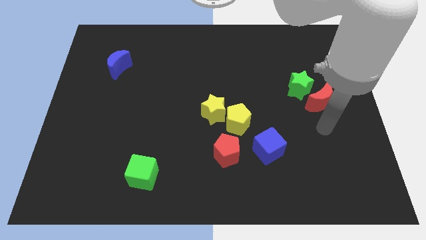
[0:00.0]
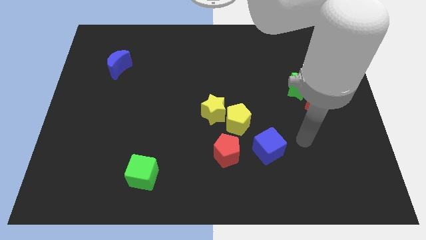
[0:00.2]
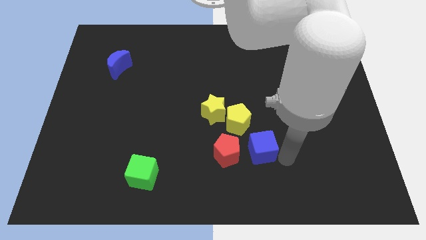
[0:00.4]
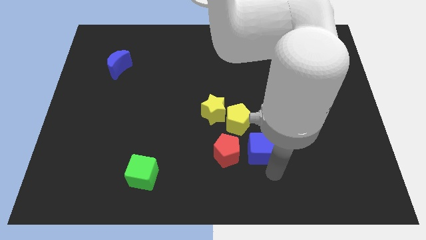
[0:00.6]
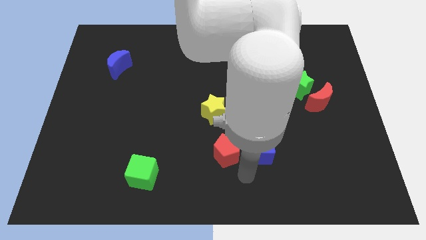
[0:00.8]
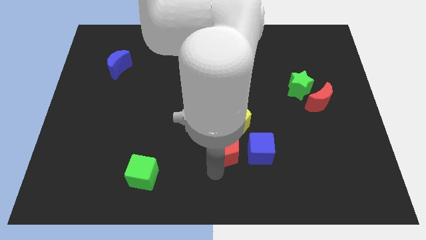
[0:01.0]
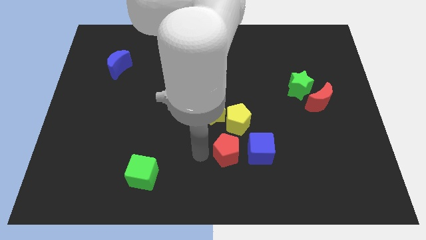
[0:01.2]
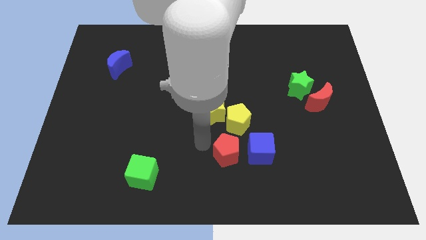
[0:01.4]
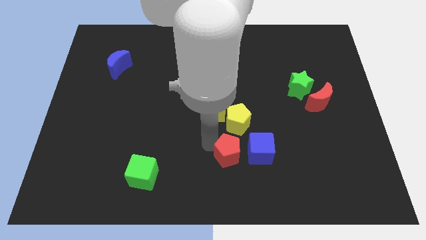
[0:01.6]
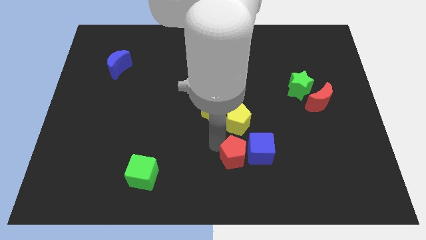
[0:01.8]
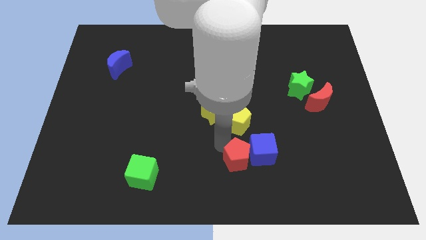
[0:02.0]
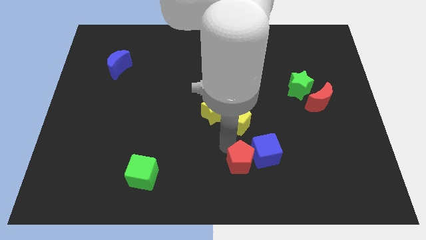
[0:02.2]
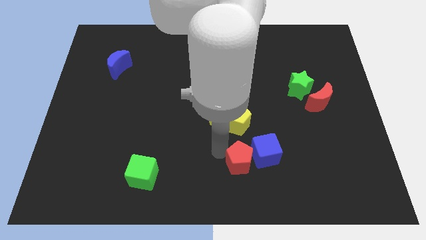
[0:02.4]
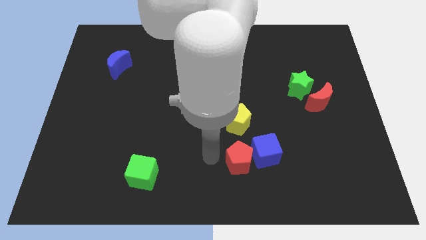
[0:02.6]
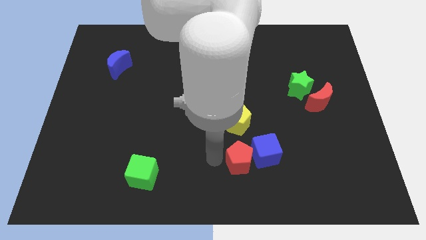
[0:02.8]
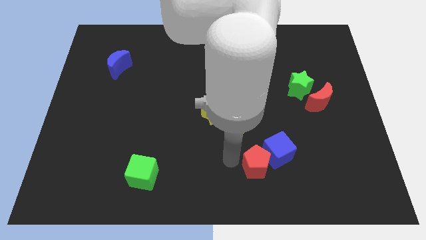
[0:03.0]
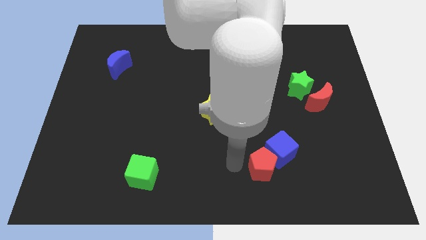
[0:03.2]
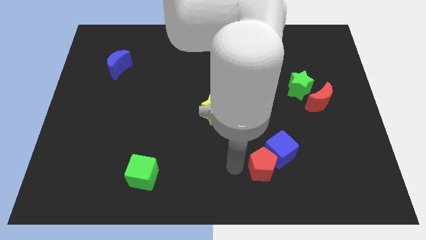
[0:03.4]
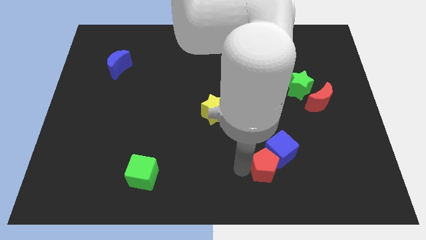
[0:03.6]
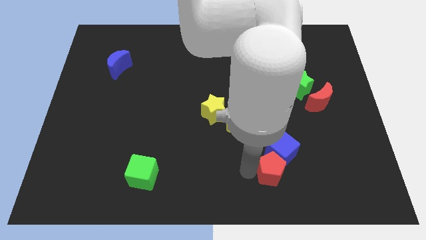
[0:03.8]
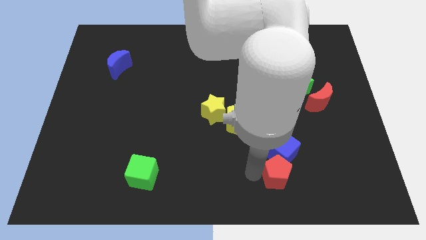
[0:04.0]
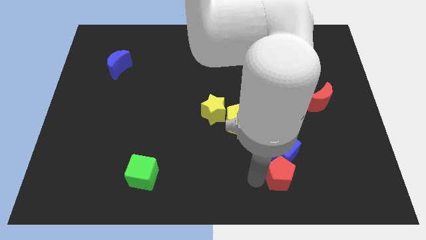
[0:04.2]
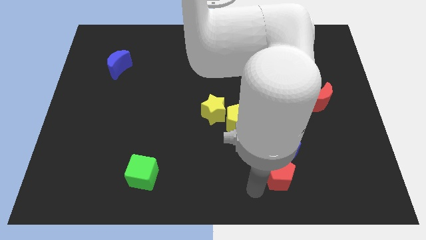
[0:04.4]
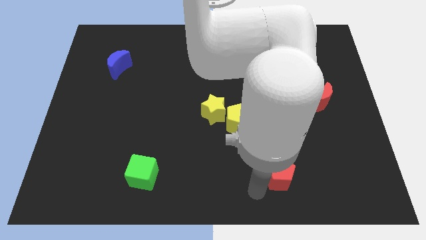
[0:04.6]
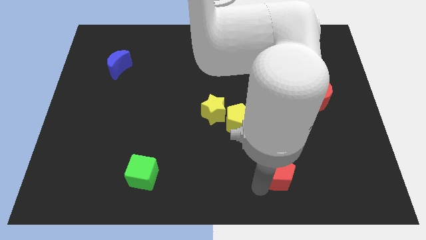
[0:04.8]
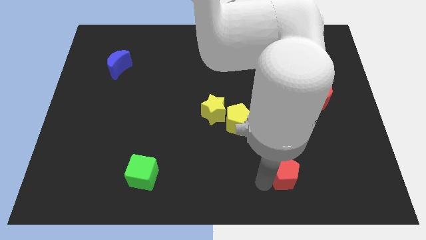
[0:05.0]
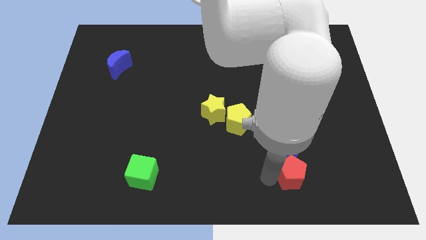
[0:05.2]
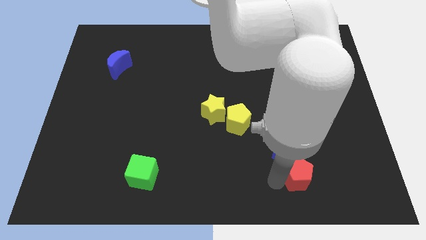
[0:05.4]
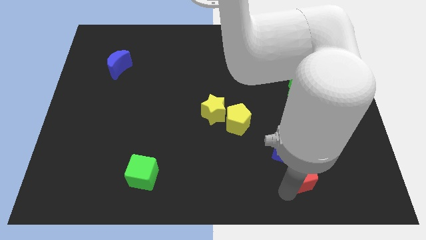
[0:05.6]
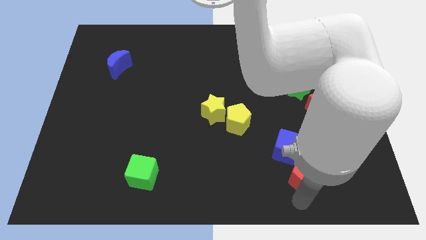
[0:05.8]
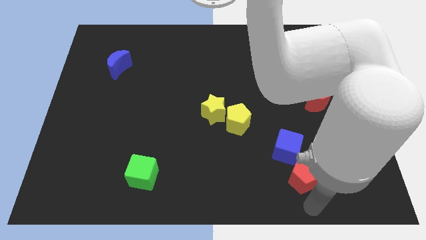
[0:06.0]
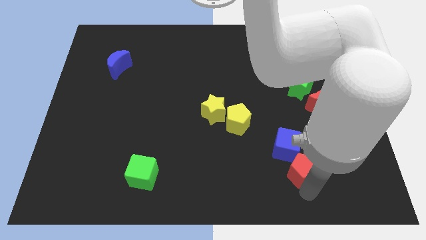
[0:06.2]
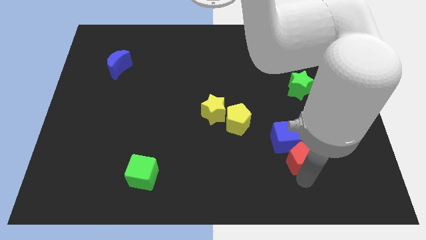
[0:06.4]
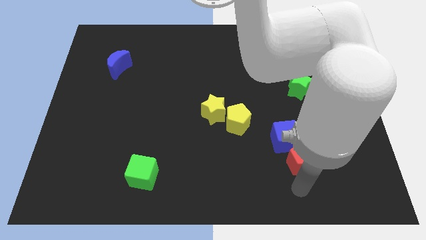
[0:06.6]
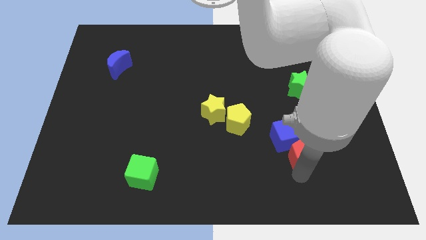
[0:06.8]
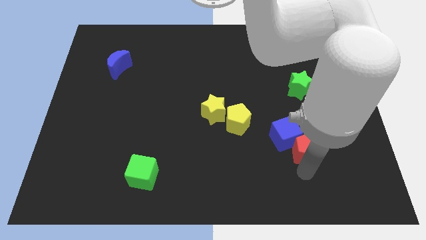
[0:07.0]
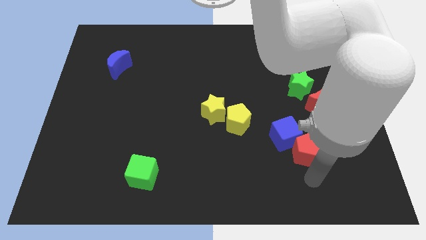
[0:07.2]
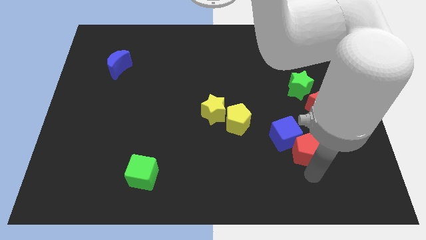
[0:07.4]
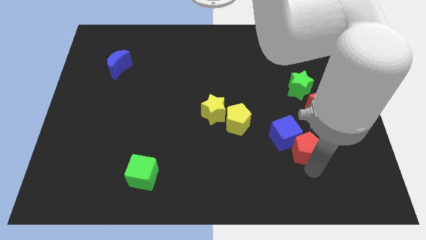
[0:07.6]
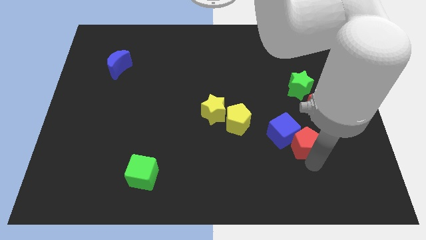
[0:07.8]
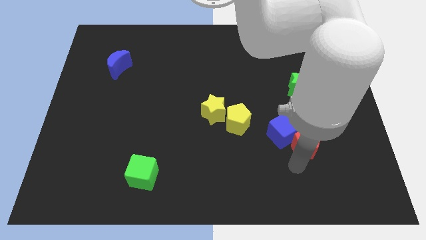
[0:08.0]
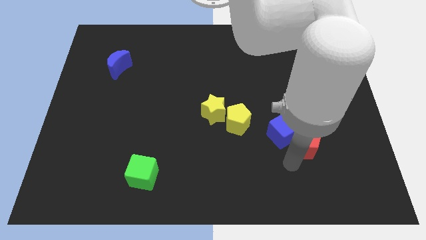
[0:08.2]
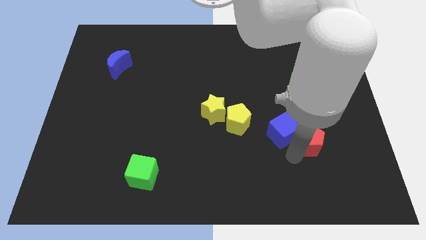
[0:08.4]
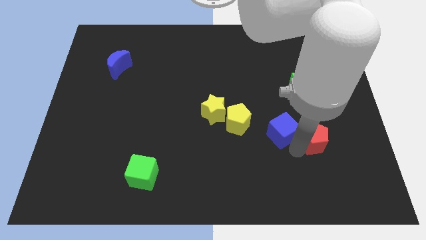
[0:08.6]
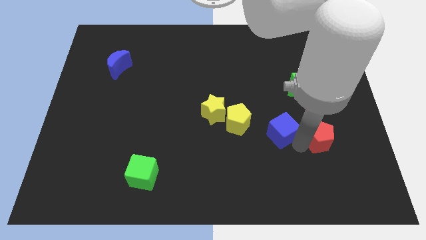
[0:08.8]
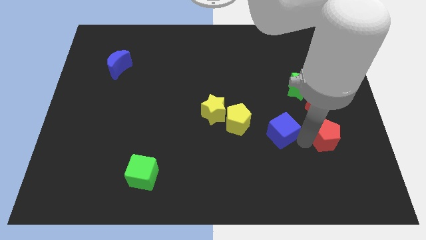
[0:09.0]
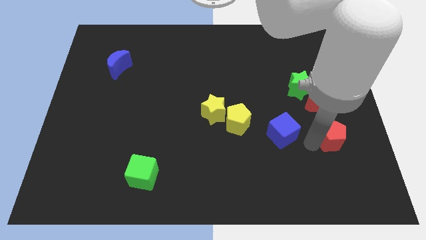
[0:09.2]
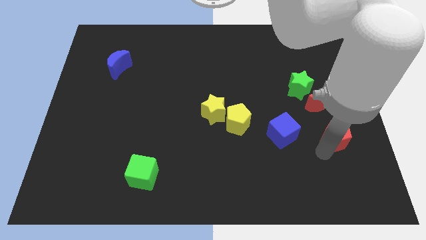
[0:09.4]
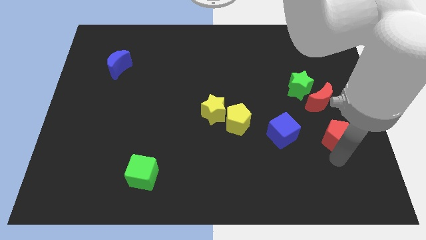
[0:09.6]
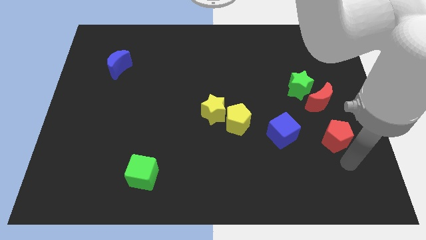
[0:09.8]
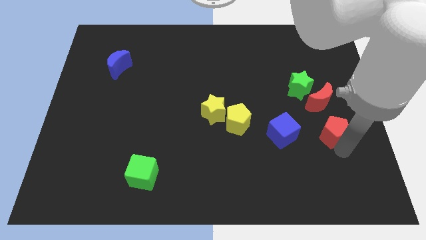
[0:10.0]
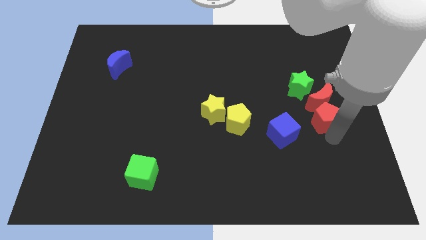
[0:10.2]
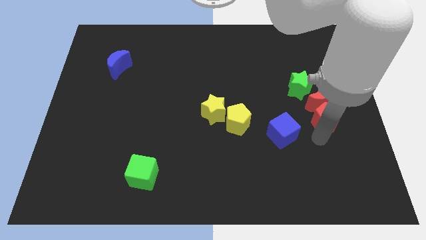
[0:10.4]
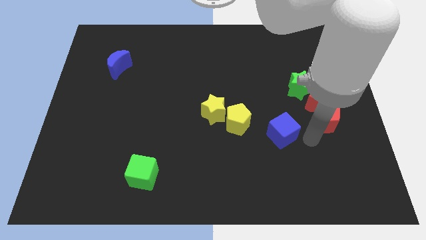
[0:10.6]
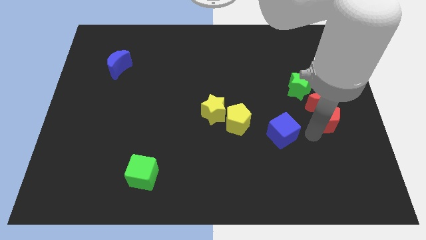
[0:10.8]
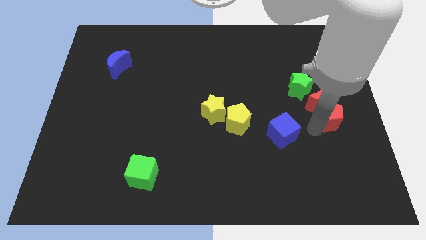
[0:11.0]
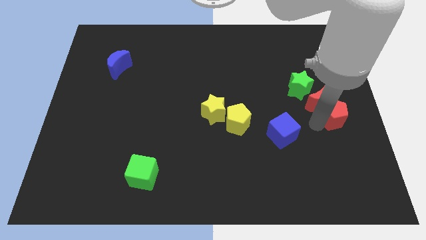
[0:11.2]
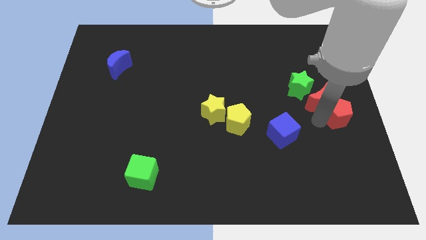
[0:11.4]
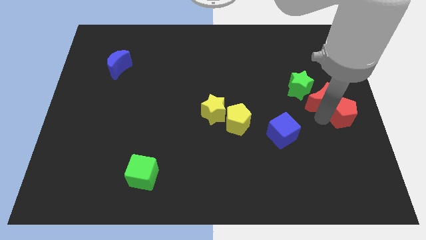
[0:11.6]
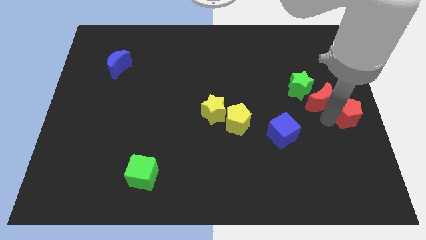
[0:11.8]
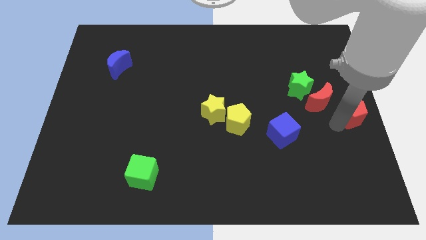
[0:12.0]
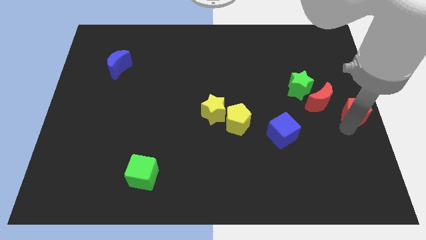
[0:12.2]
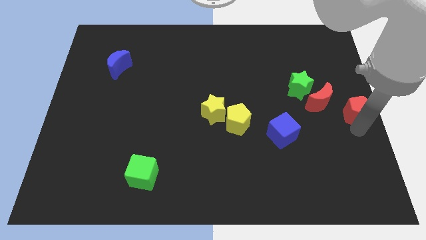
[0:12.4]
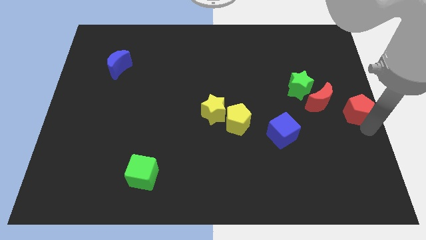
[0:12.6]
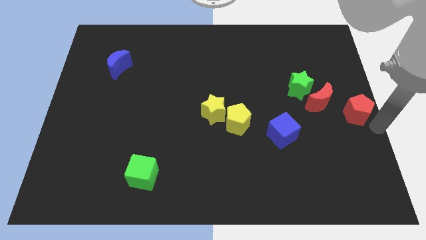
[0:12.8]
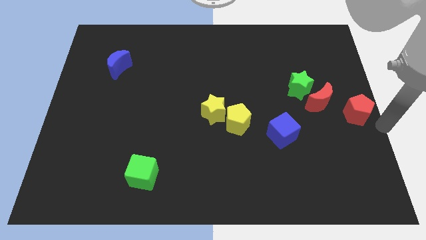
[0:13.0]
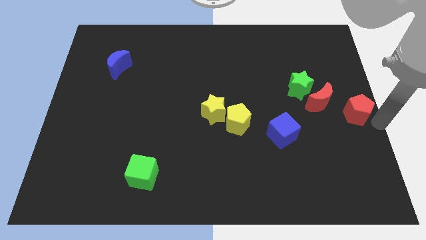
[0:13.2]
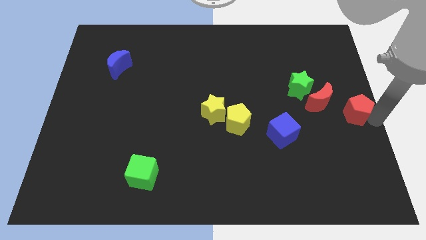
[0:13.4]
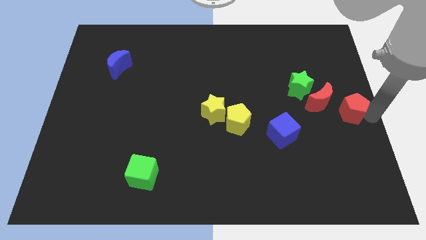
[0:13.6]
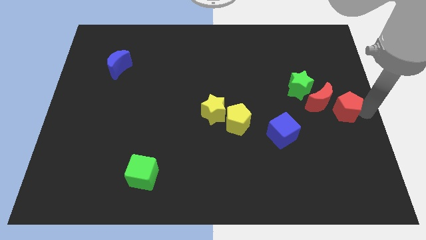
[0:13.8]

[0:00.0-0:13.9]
slide the red pentagon diagonally upwards and to the right

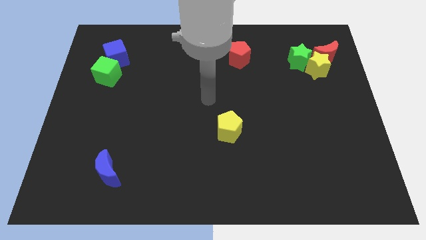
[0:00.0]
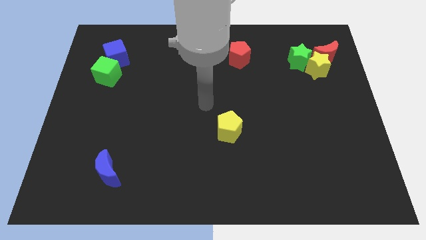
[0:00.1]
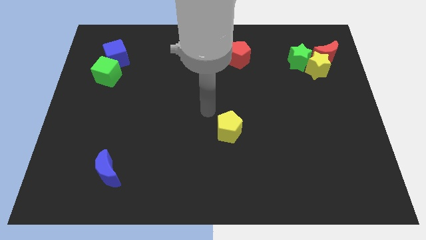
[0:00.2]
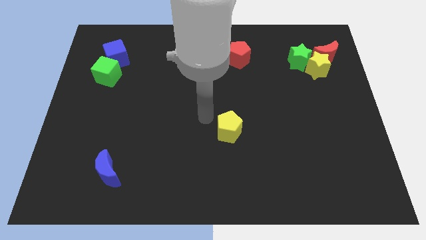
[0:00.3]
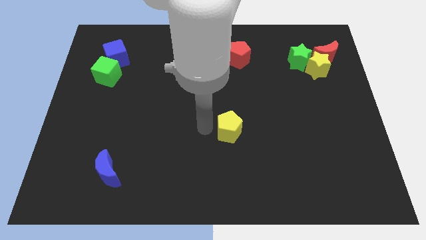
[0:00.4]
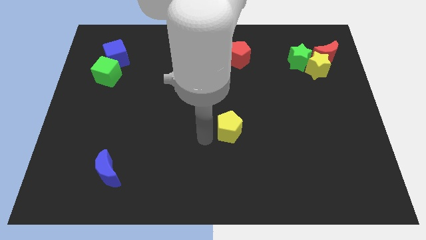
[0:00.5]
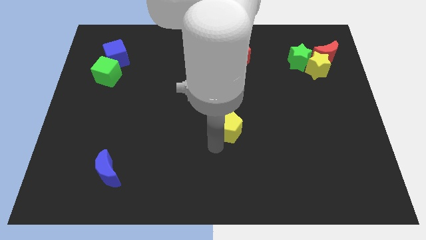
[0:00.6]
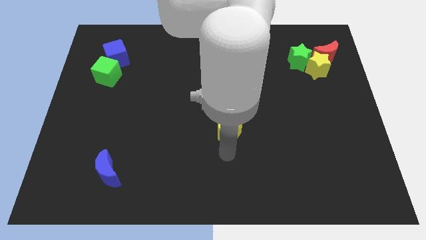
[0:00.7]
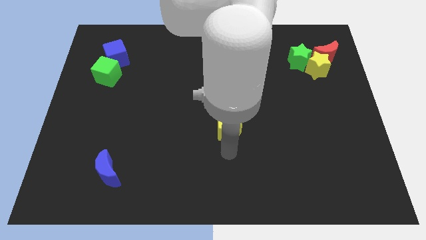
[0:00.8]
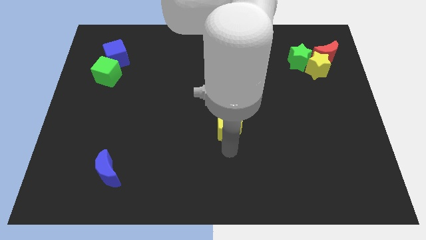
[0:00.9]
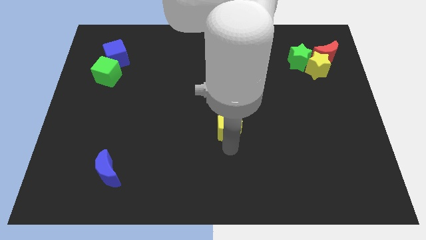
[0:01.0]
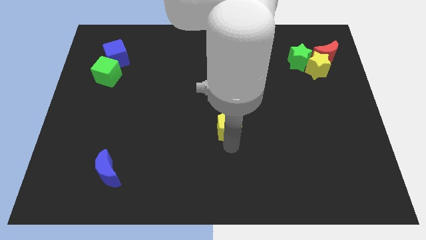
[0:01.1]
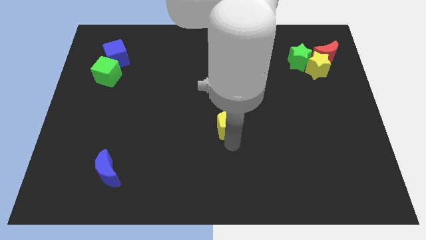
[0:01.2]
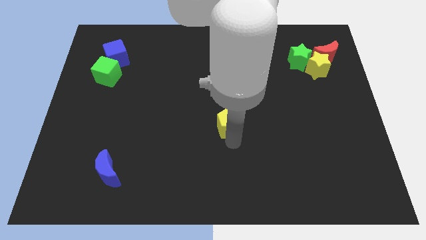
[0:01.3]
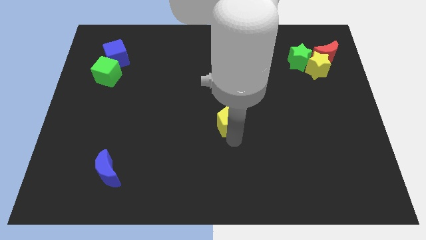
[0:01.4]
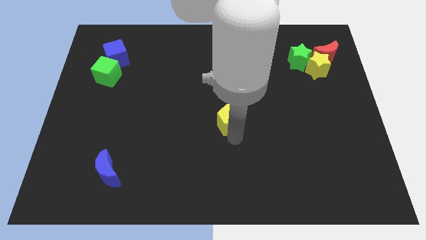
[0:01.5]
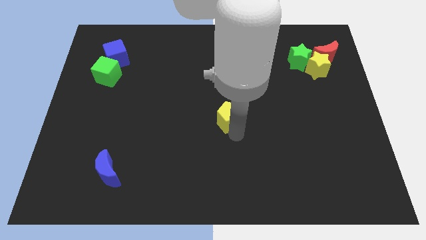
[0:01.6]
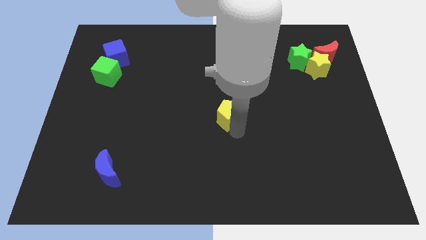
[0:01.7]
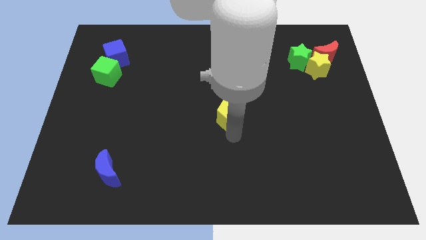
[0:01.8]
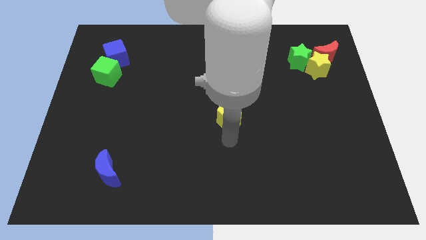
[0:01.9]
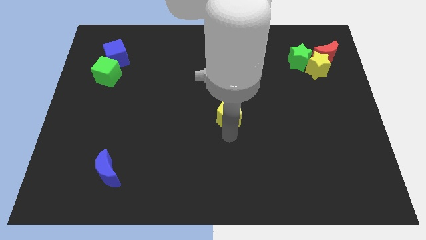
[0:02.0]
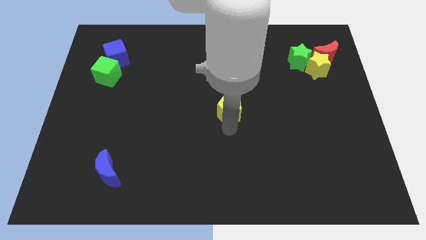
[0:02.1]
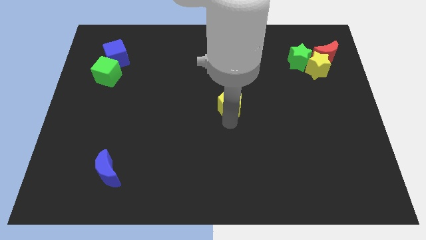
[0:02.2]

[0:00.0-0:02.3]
slightly slide the yellow pentagon upwards
